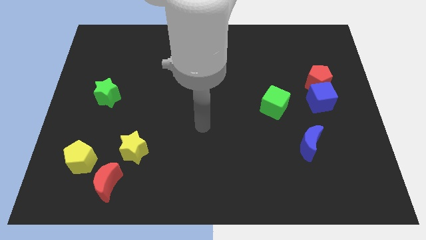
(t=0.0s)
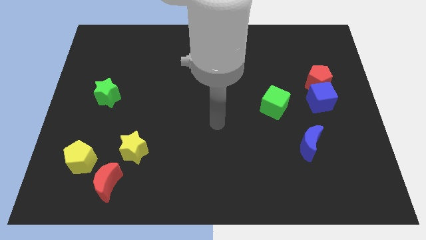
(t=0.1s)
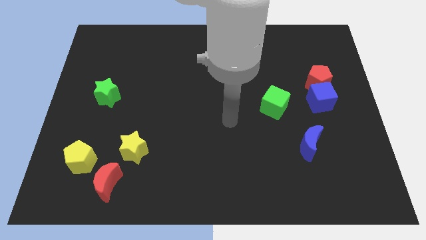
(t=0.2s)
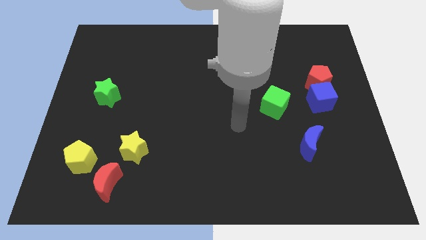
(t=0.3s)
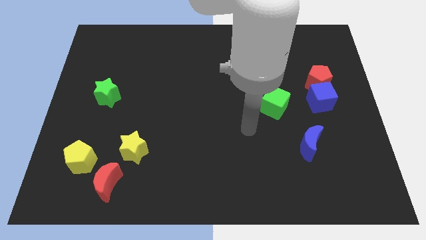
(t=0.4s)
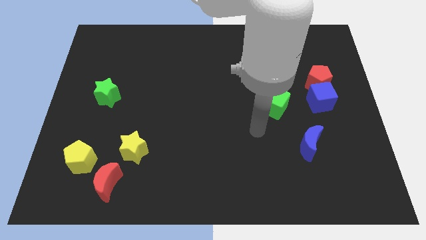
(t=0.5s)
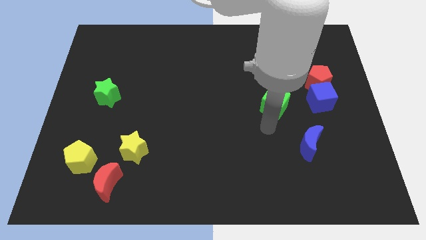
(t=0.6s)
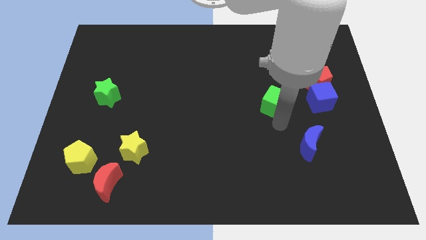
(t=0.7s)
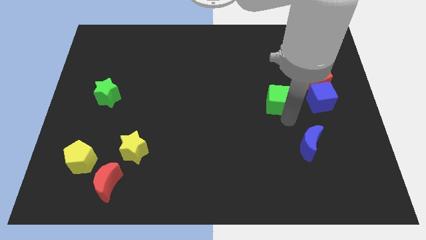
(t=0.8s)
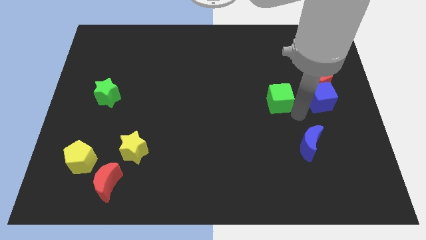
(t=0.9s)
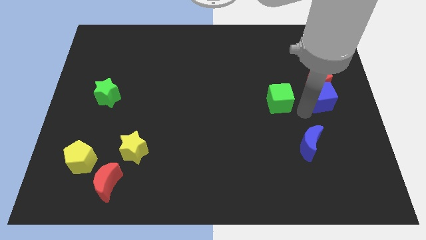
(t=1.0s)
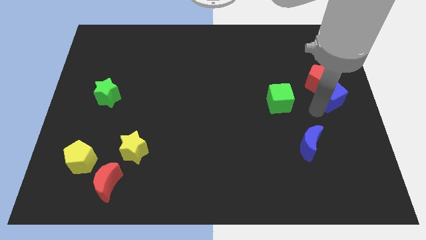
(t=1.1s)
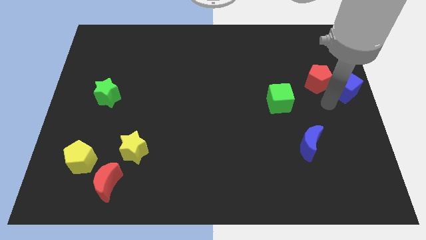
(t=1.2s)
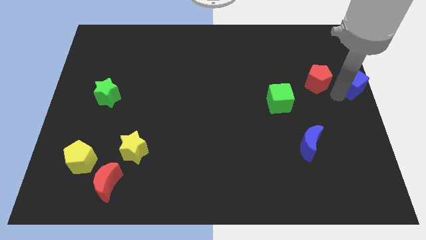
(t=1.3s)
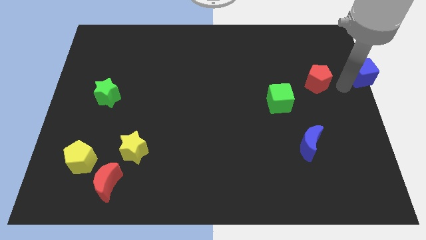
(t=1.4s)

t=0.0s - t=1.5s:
separate the red pentagon from the blue cube

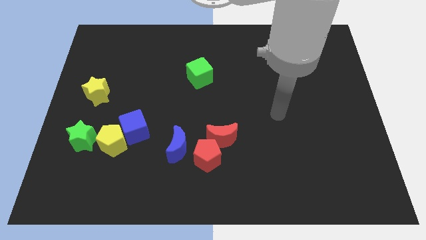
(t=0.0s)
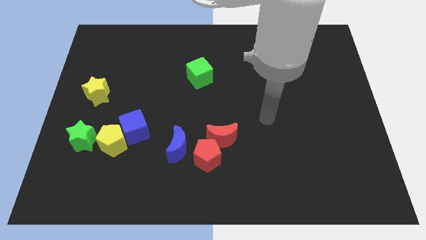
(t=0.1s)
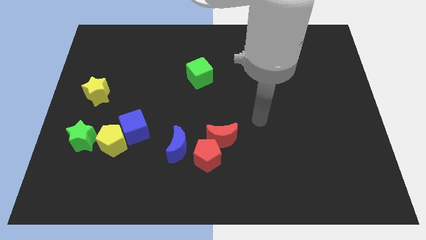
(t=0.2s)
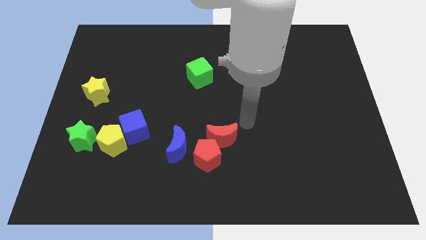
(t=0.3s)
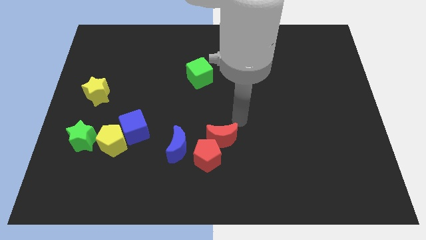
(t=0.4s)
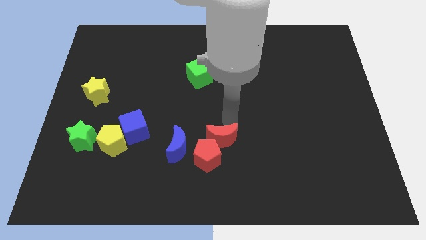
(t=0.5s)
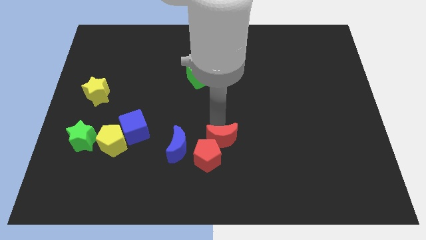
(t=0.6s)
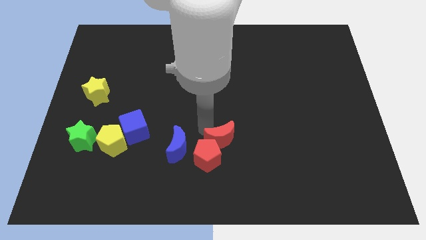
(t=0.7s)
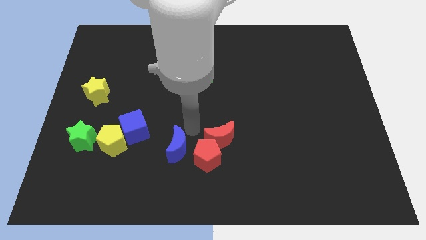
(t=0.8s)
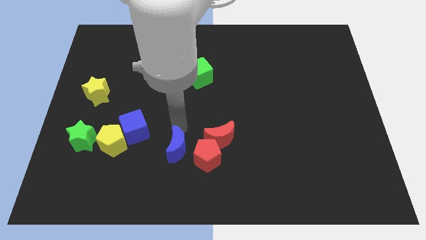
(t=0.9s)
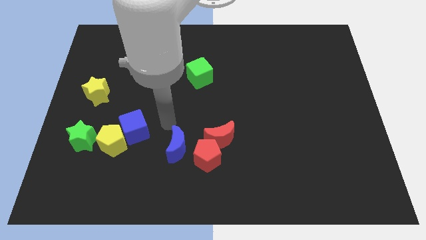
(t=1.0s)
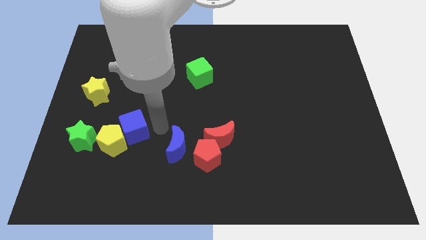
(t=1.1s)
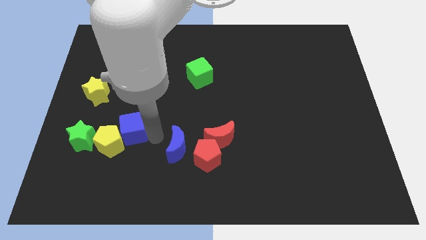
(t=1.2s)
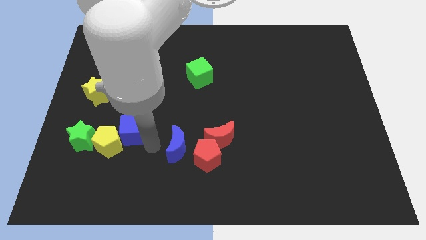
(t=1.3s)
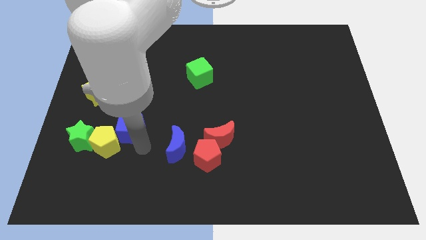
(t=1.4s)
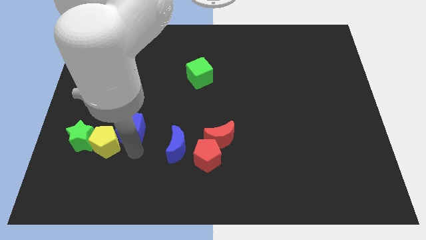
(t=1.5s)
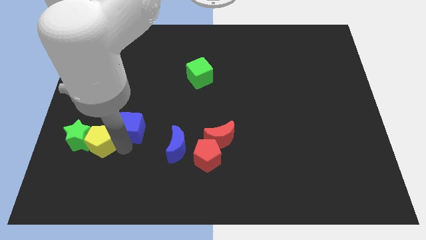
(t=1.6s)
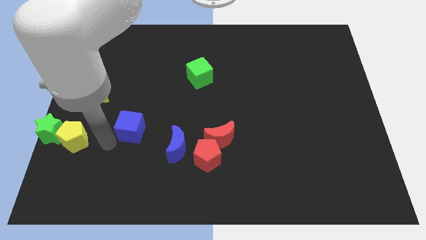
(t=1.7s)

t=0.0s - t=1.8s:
separate the blue cube from the yellow pentagon

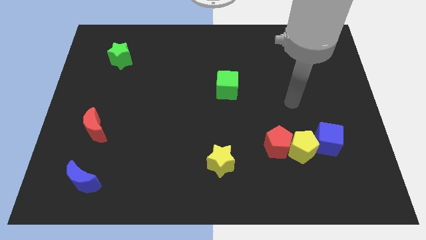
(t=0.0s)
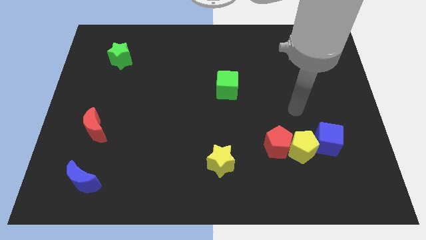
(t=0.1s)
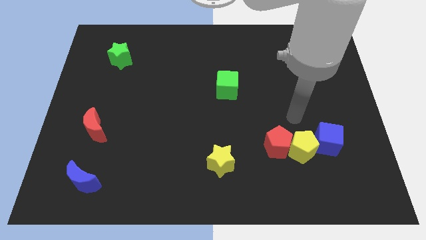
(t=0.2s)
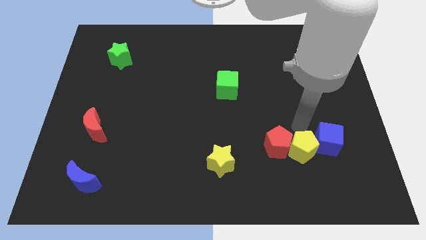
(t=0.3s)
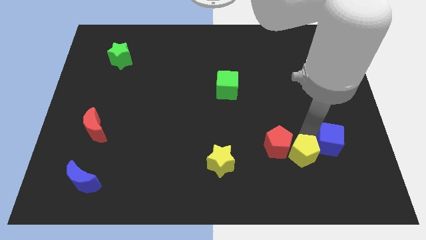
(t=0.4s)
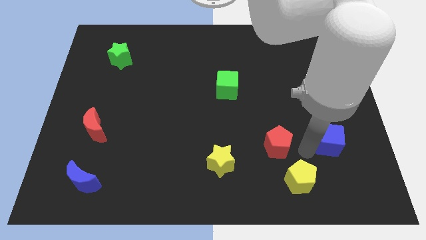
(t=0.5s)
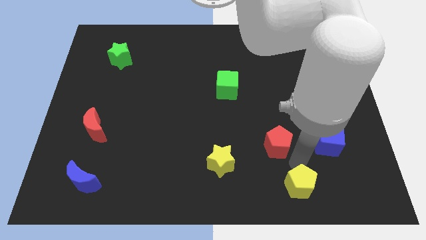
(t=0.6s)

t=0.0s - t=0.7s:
move the red pentagon away from the yellow pentagon

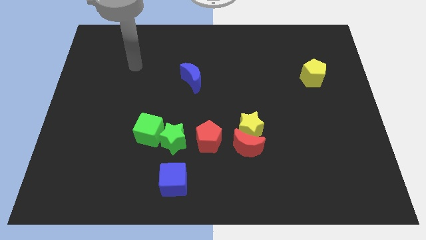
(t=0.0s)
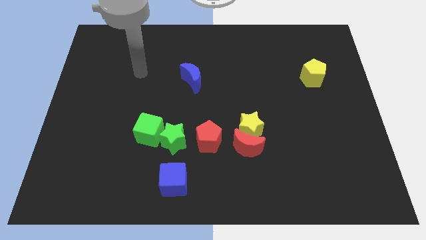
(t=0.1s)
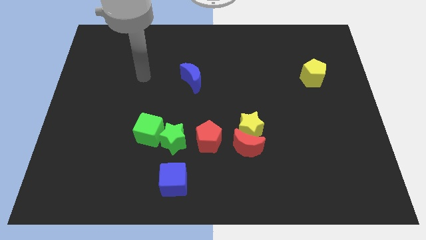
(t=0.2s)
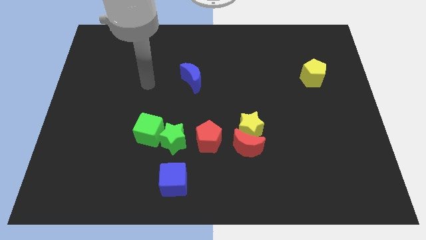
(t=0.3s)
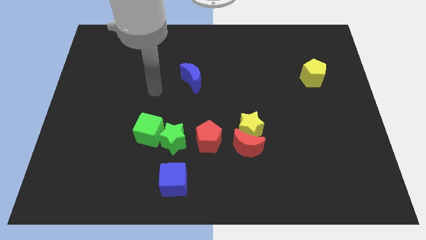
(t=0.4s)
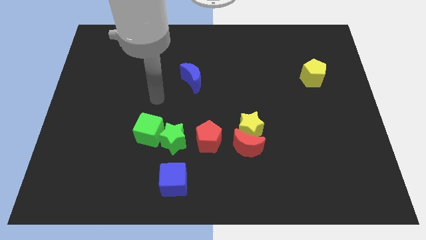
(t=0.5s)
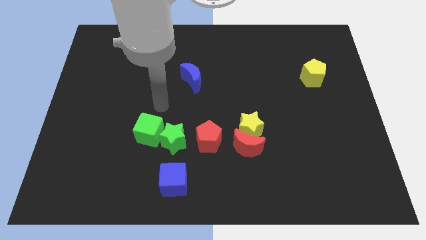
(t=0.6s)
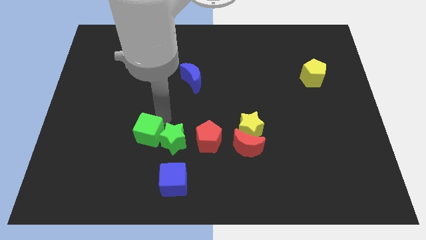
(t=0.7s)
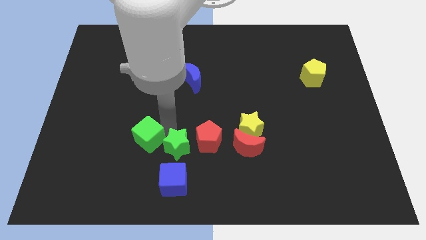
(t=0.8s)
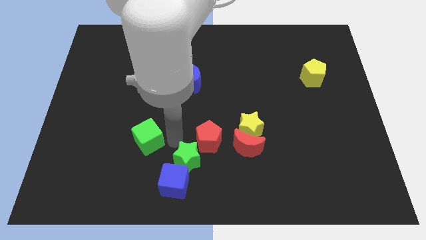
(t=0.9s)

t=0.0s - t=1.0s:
separate the green cube from the green star

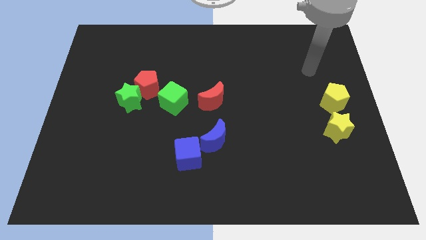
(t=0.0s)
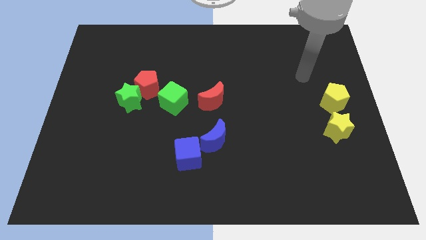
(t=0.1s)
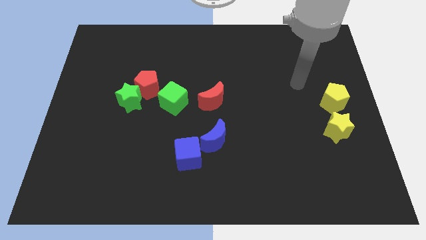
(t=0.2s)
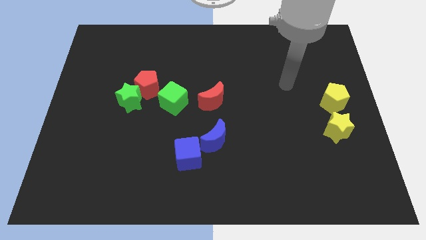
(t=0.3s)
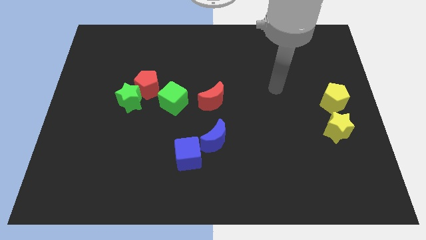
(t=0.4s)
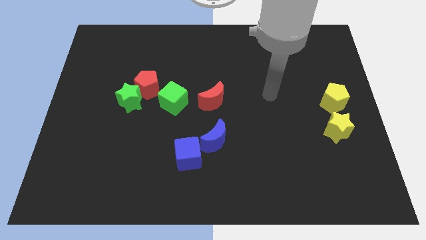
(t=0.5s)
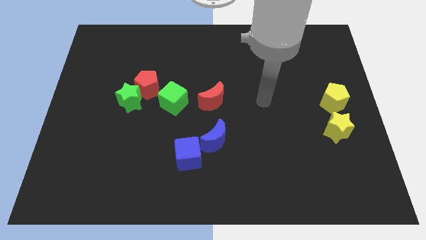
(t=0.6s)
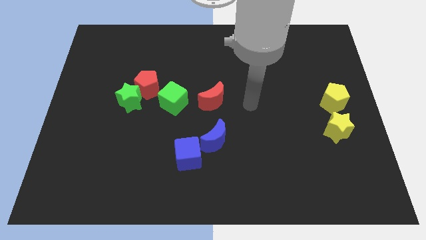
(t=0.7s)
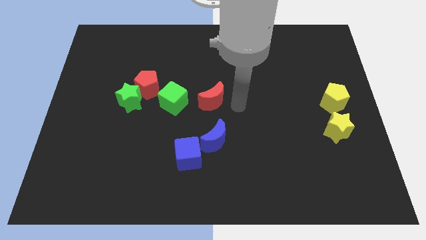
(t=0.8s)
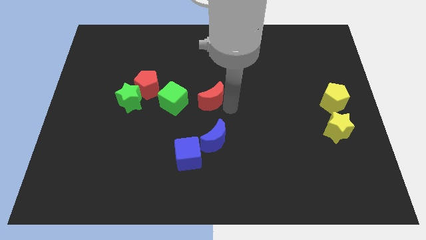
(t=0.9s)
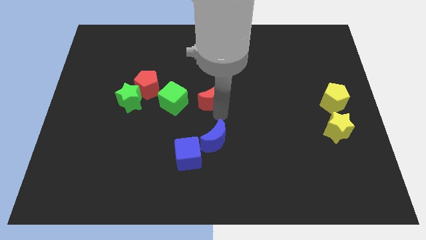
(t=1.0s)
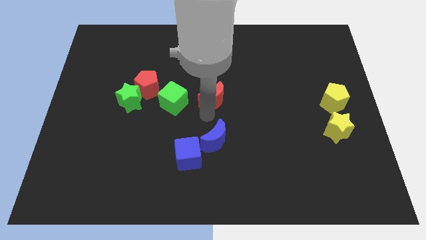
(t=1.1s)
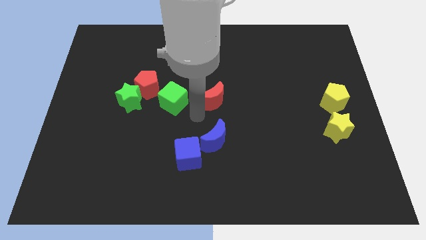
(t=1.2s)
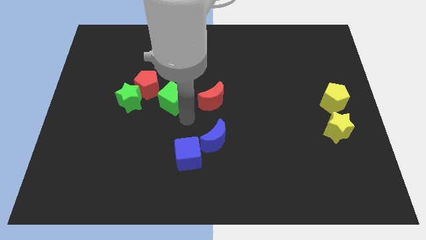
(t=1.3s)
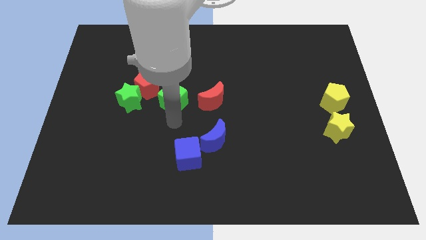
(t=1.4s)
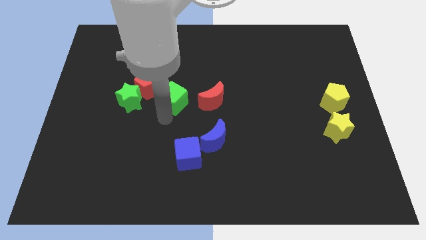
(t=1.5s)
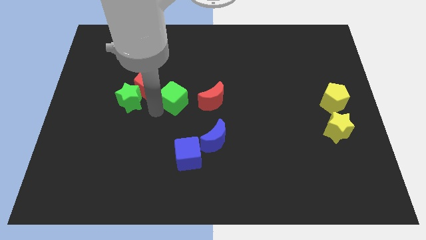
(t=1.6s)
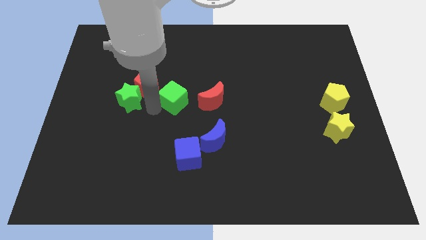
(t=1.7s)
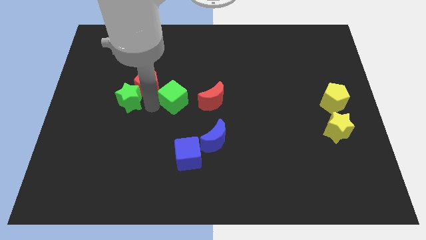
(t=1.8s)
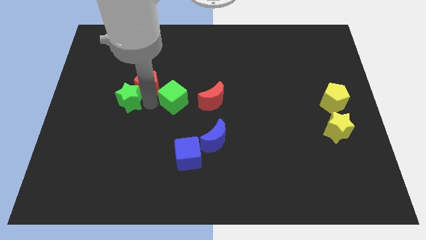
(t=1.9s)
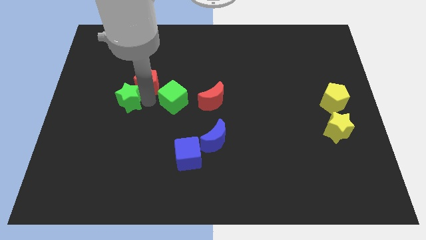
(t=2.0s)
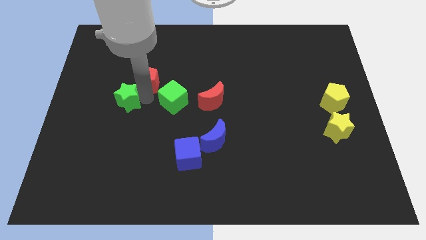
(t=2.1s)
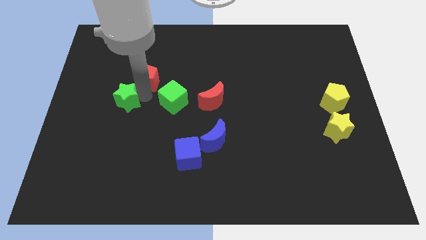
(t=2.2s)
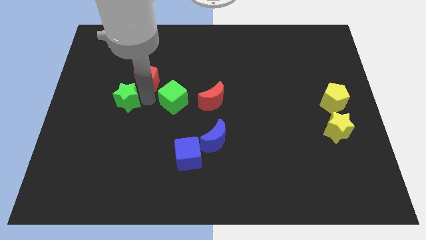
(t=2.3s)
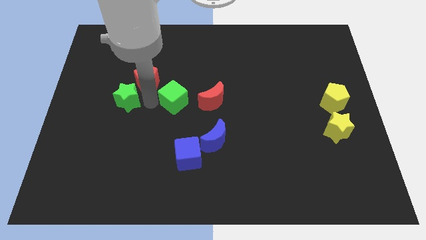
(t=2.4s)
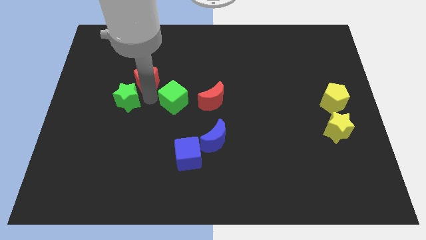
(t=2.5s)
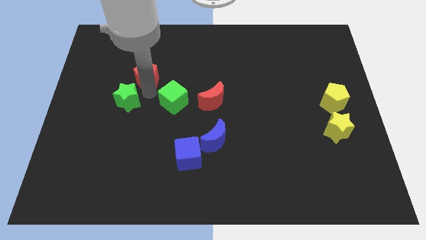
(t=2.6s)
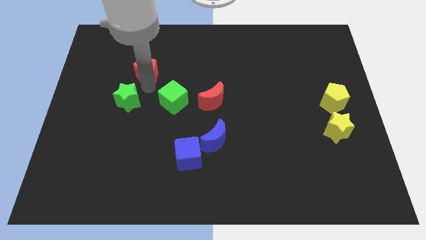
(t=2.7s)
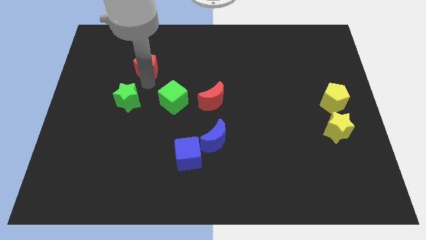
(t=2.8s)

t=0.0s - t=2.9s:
pull the red pentagon apart from the green star and green cube

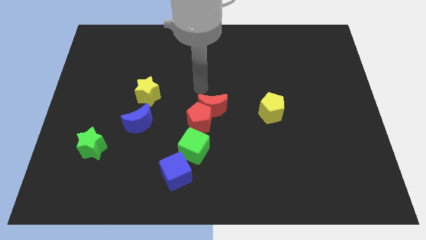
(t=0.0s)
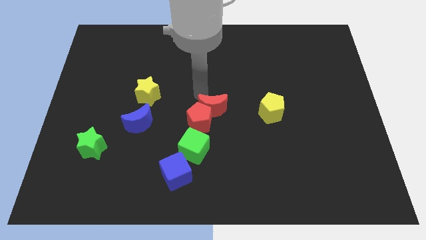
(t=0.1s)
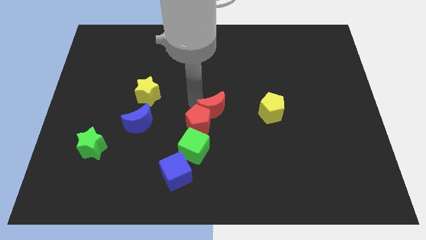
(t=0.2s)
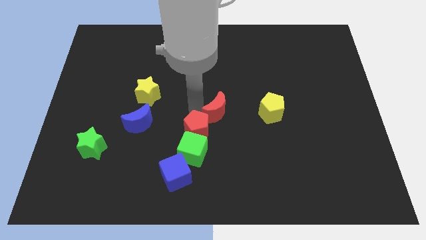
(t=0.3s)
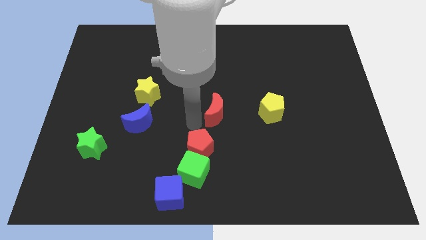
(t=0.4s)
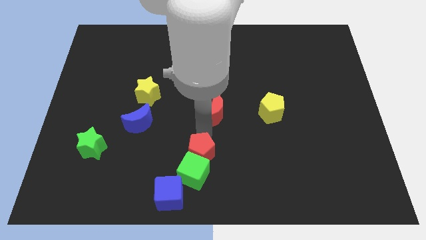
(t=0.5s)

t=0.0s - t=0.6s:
move the red moon away from the red pentagon

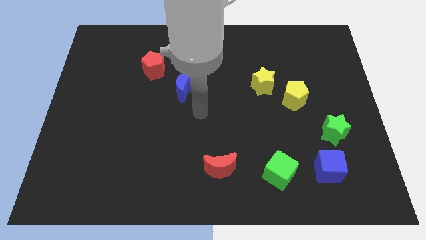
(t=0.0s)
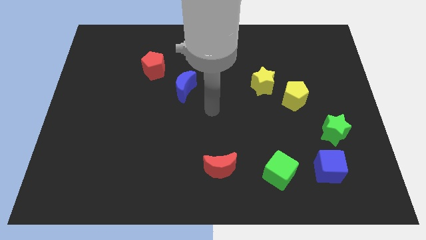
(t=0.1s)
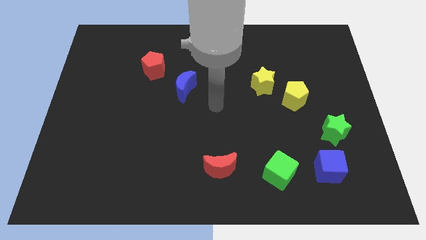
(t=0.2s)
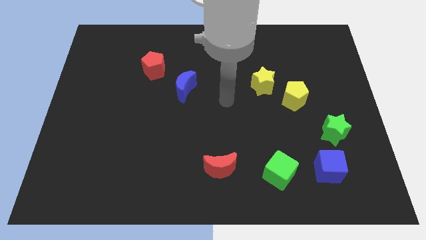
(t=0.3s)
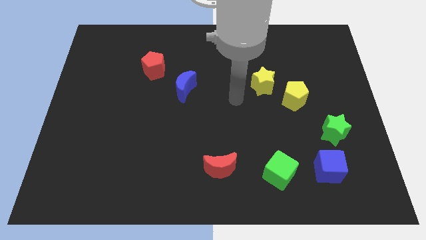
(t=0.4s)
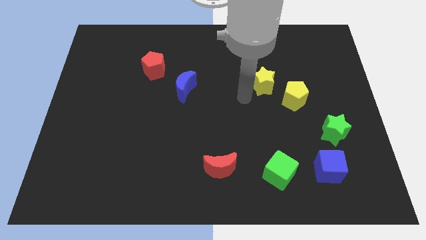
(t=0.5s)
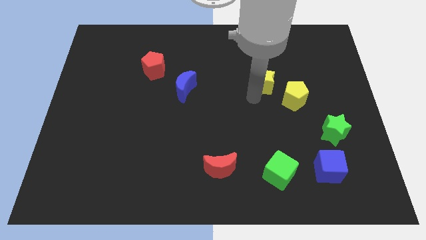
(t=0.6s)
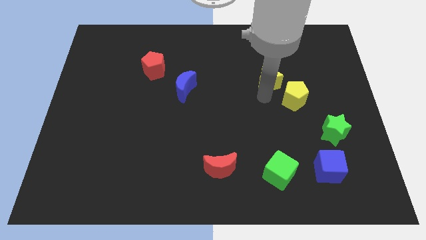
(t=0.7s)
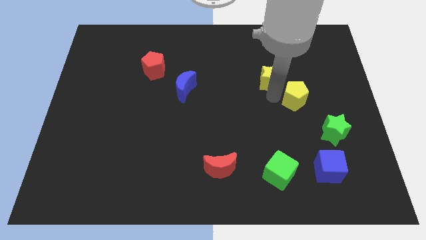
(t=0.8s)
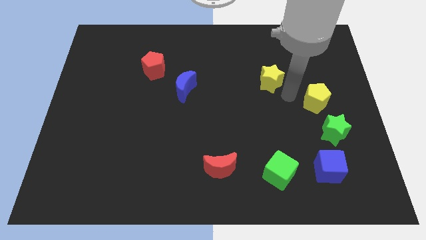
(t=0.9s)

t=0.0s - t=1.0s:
move the yellow star away from the yellow pentagon
